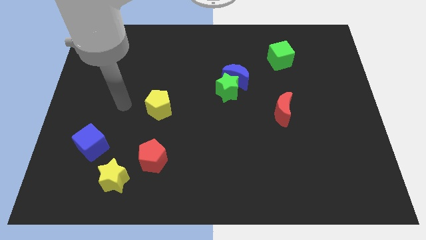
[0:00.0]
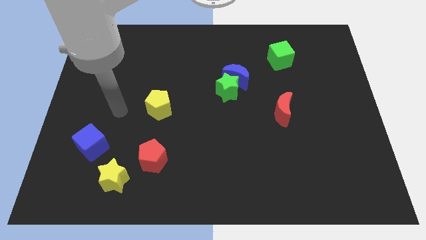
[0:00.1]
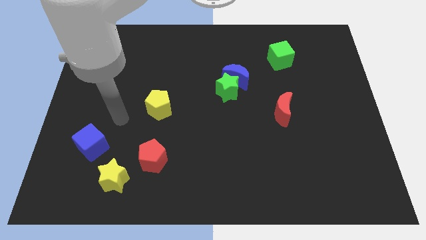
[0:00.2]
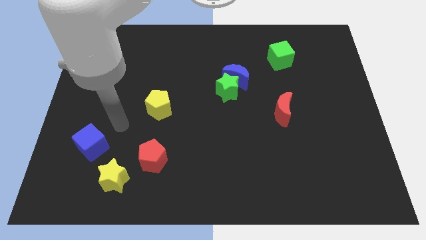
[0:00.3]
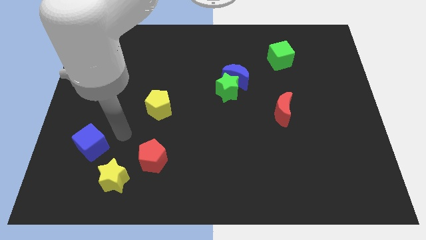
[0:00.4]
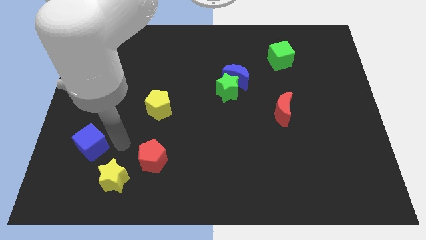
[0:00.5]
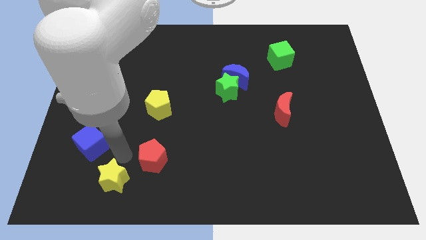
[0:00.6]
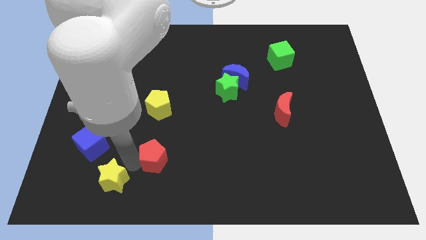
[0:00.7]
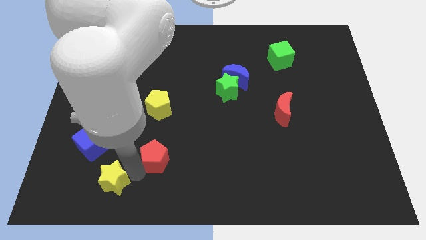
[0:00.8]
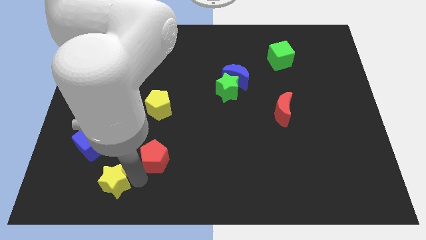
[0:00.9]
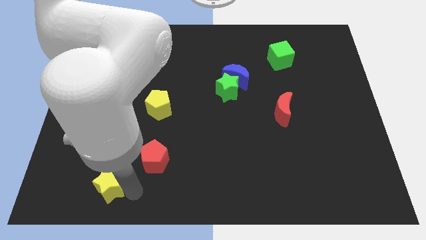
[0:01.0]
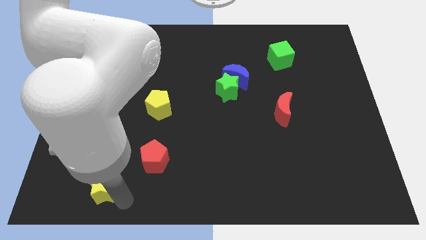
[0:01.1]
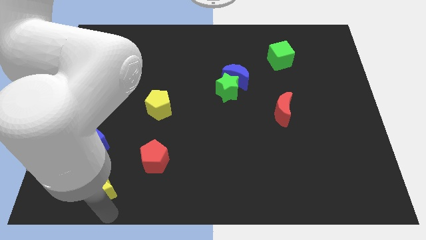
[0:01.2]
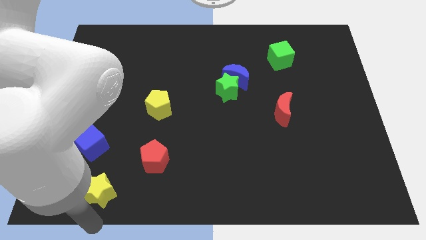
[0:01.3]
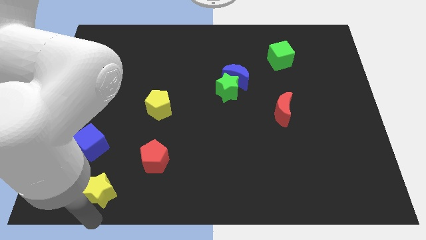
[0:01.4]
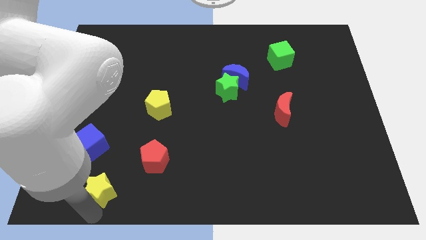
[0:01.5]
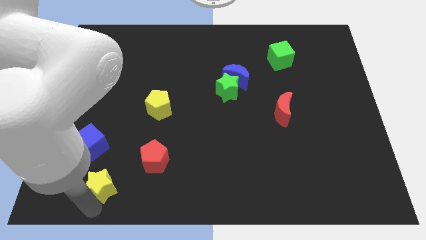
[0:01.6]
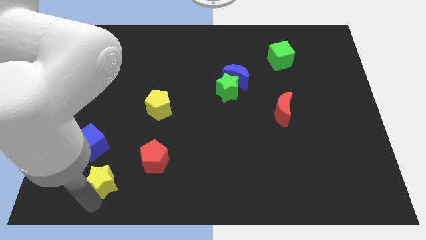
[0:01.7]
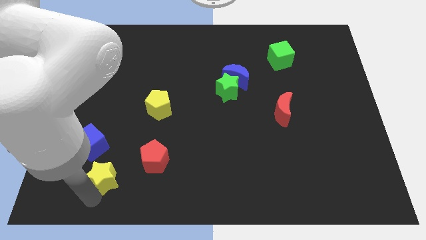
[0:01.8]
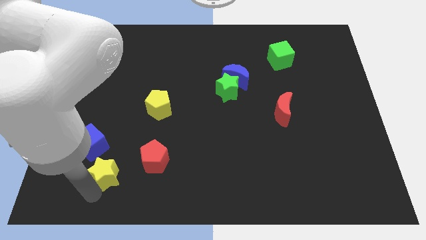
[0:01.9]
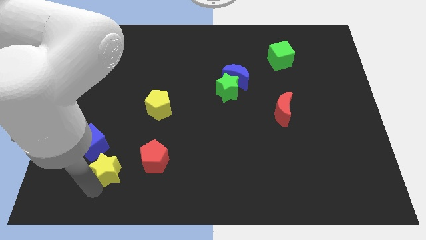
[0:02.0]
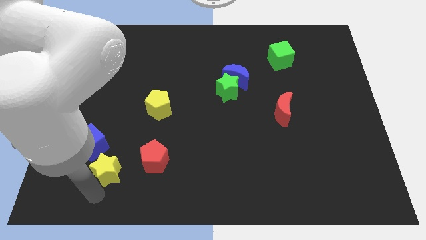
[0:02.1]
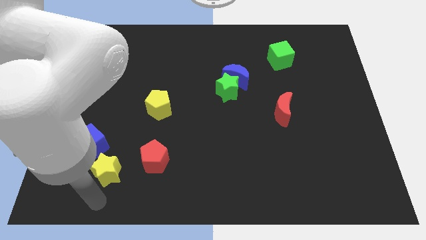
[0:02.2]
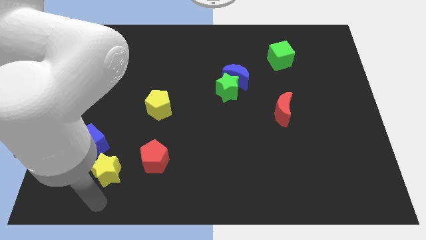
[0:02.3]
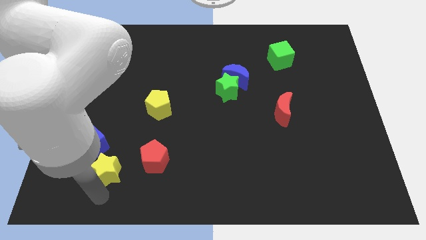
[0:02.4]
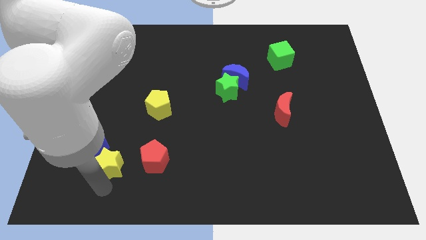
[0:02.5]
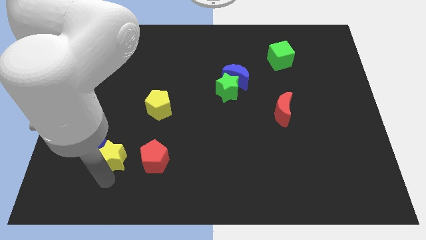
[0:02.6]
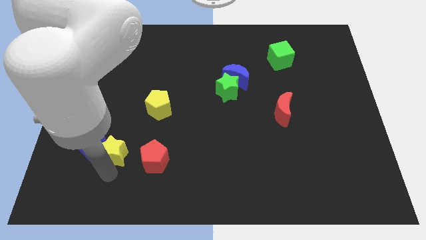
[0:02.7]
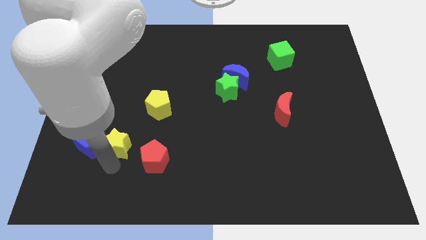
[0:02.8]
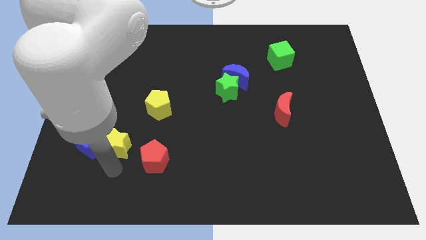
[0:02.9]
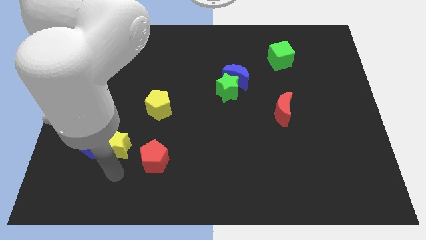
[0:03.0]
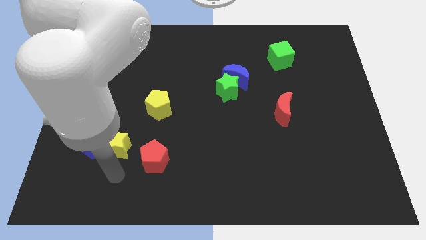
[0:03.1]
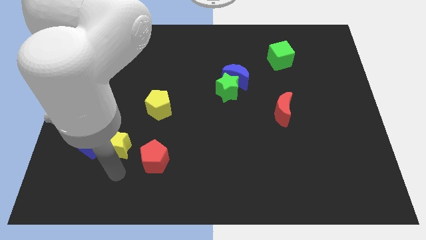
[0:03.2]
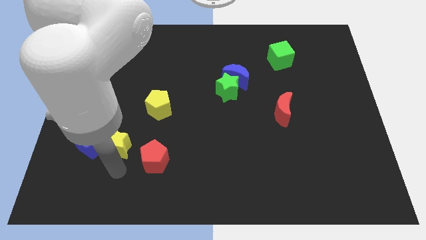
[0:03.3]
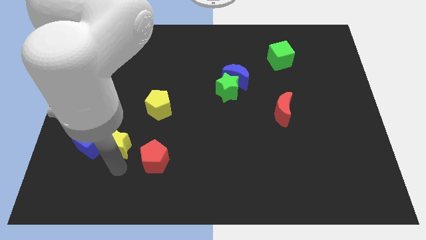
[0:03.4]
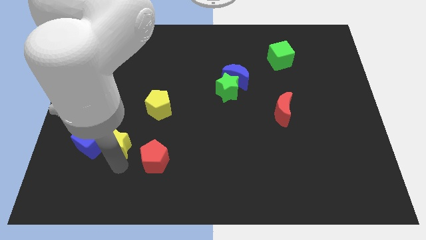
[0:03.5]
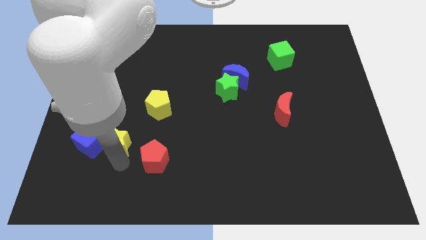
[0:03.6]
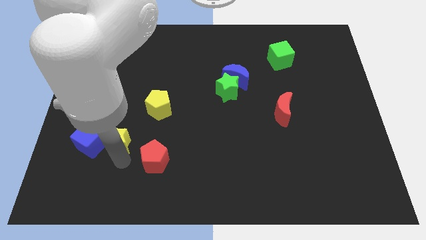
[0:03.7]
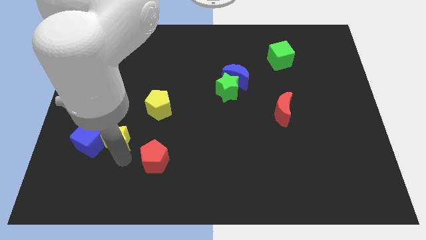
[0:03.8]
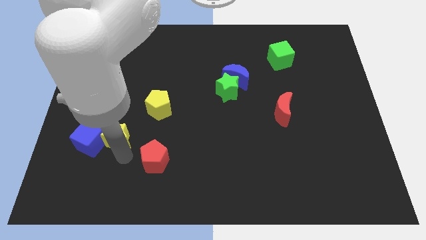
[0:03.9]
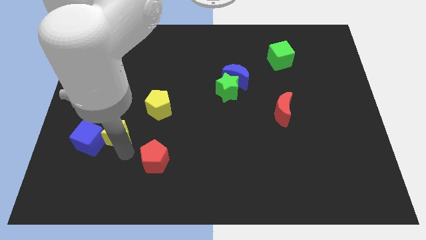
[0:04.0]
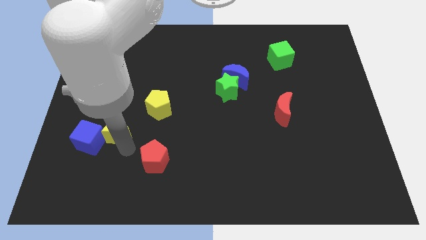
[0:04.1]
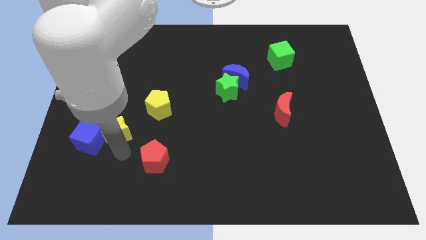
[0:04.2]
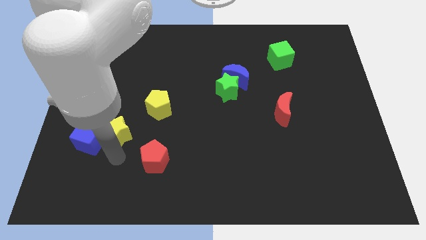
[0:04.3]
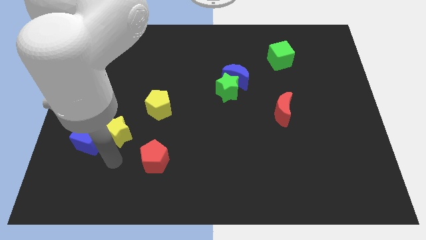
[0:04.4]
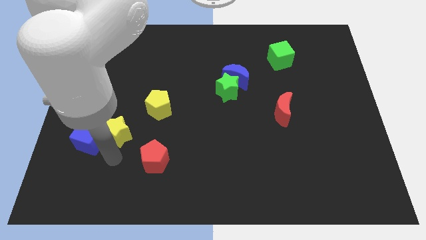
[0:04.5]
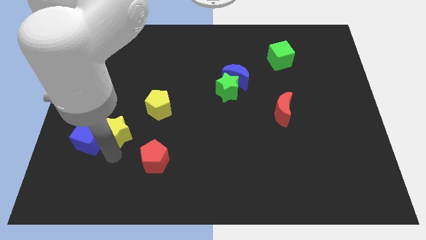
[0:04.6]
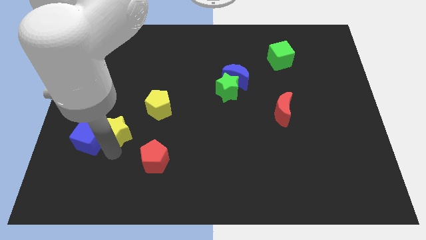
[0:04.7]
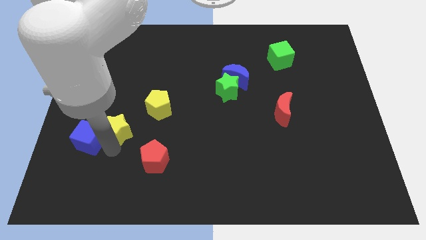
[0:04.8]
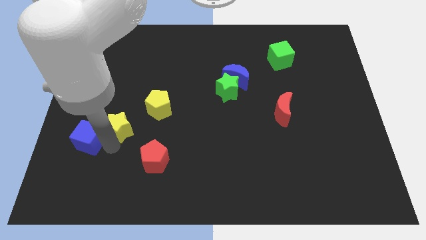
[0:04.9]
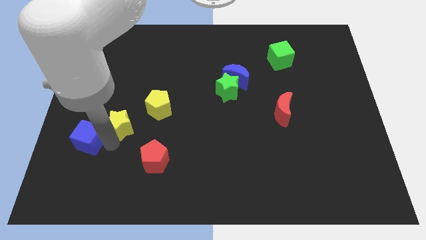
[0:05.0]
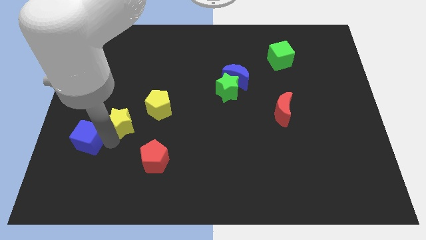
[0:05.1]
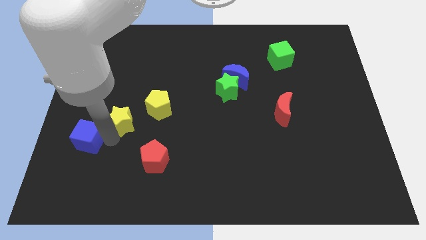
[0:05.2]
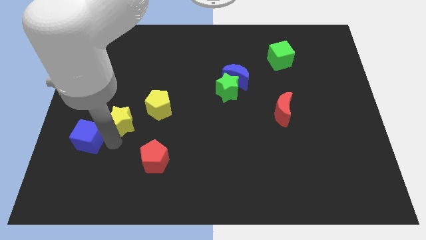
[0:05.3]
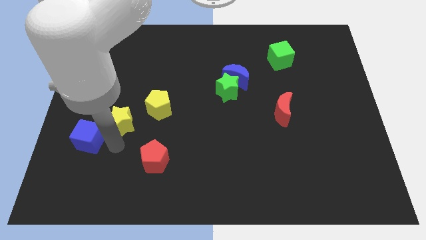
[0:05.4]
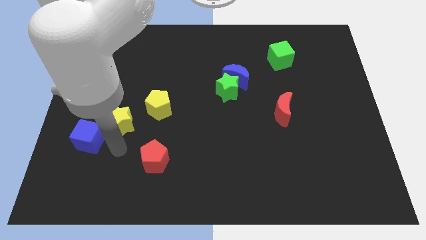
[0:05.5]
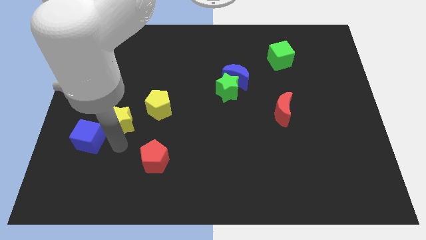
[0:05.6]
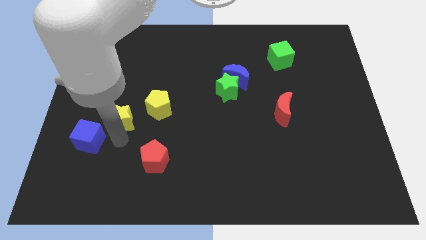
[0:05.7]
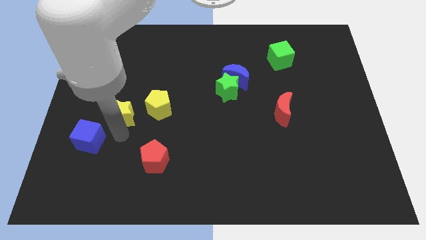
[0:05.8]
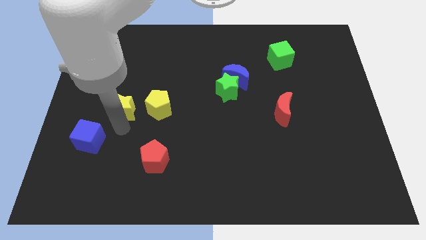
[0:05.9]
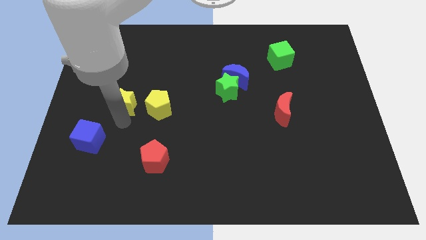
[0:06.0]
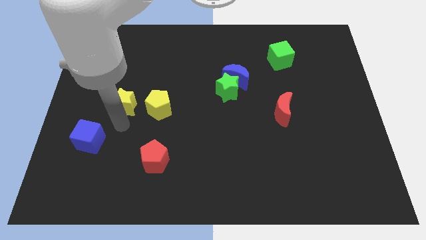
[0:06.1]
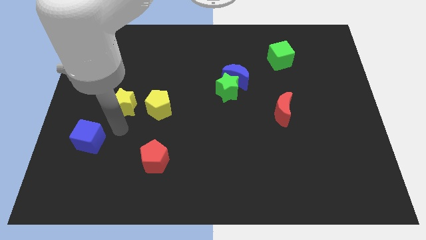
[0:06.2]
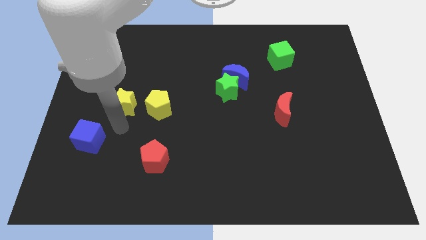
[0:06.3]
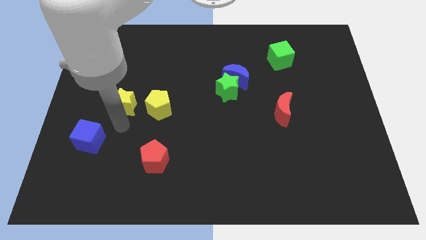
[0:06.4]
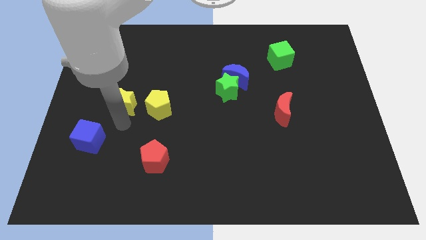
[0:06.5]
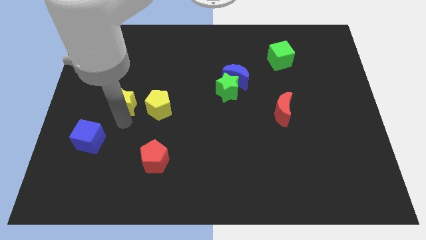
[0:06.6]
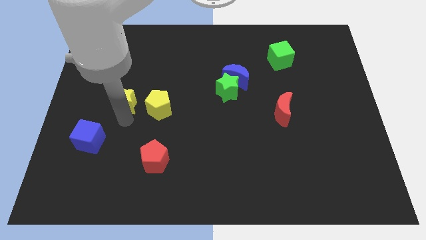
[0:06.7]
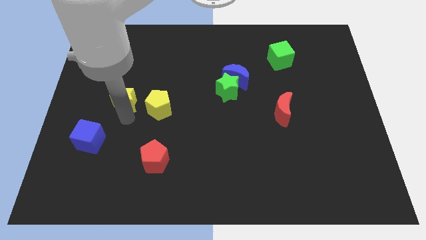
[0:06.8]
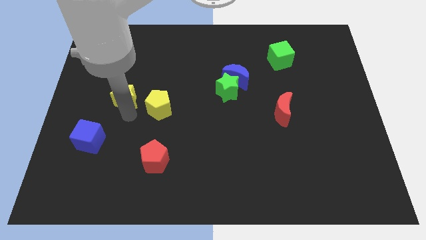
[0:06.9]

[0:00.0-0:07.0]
move the yellow star upwards

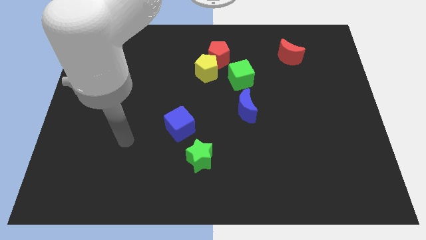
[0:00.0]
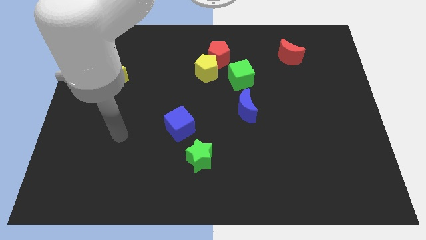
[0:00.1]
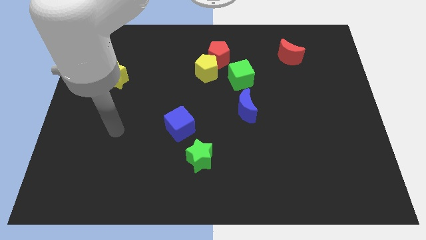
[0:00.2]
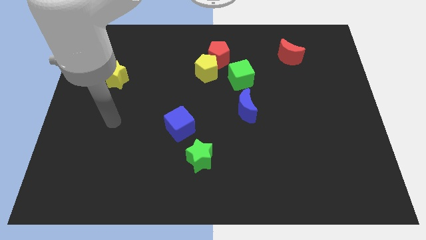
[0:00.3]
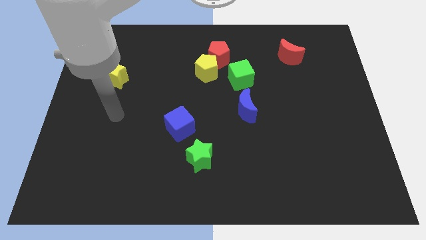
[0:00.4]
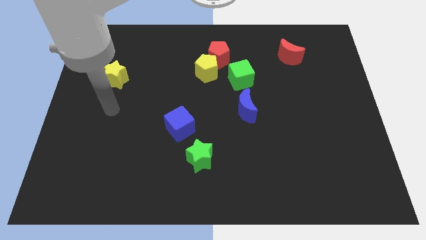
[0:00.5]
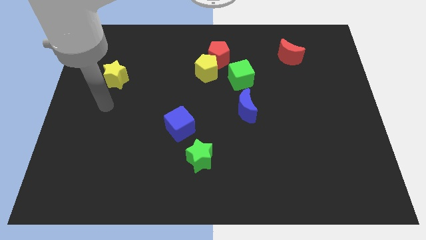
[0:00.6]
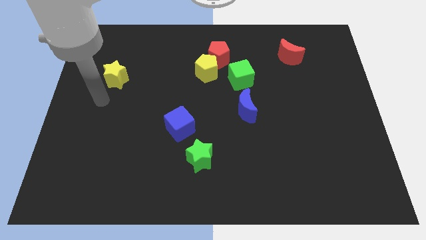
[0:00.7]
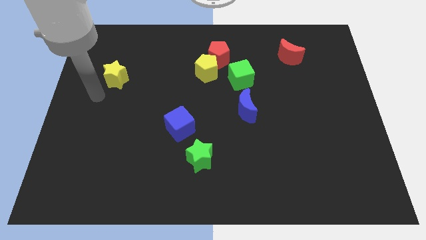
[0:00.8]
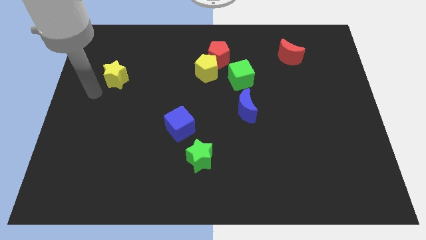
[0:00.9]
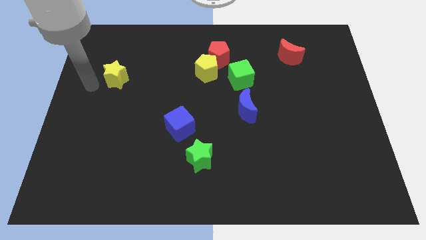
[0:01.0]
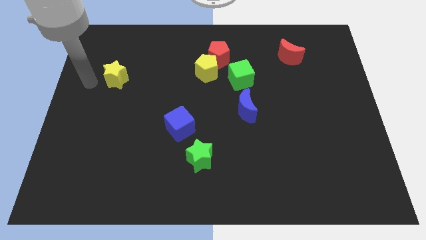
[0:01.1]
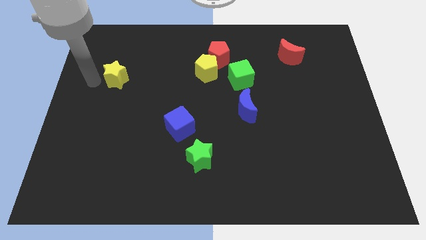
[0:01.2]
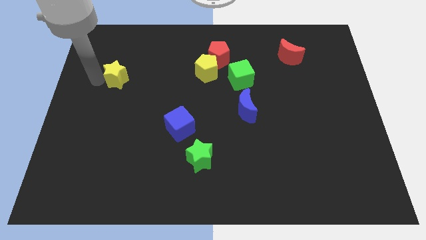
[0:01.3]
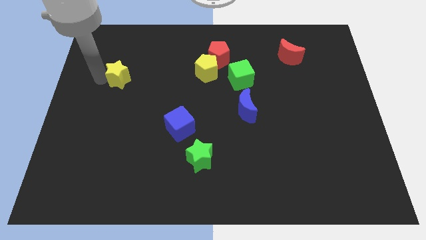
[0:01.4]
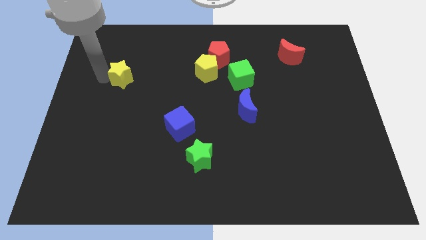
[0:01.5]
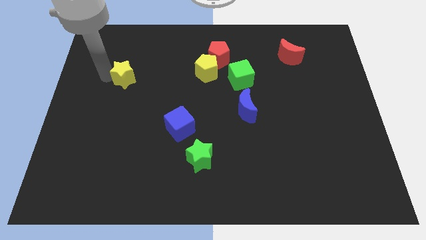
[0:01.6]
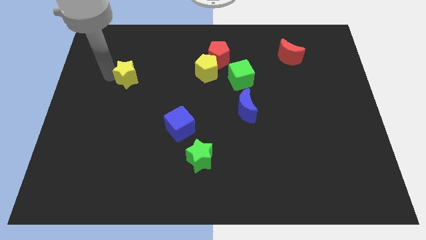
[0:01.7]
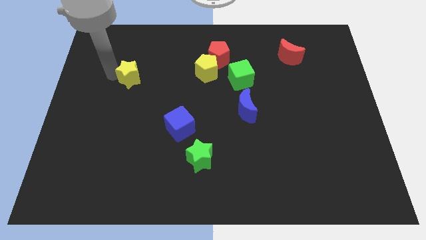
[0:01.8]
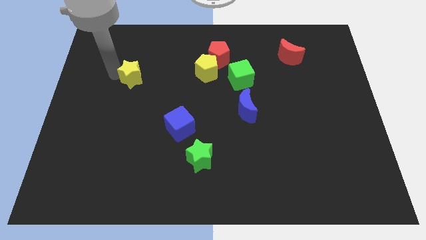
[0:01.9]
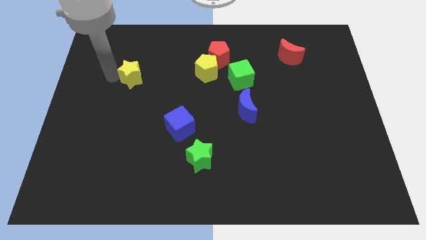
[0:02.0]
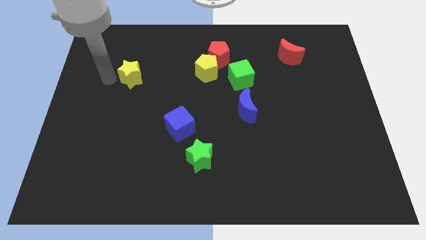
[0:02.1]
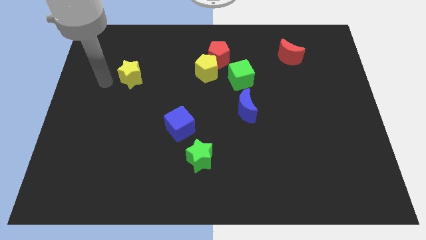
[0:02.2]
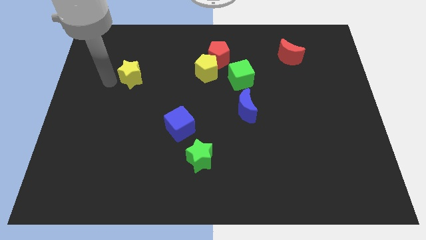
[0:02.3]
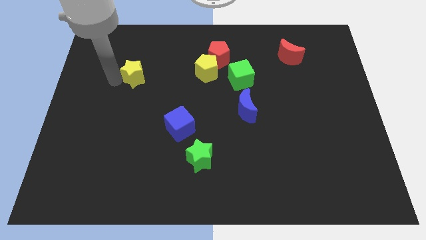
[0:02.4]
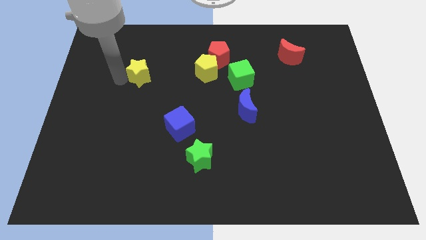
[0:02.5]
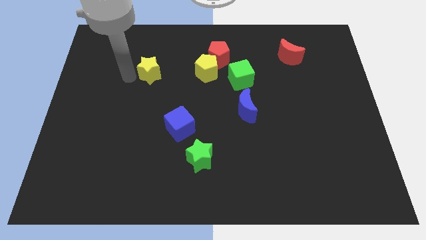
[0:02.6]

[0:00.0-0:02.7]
slide the yellow star to the right a little
